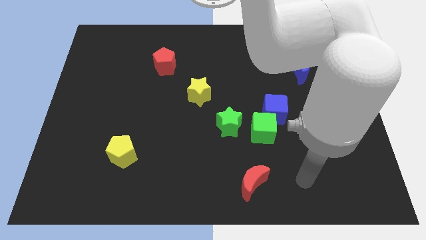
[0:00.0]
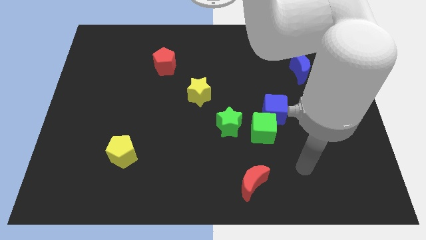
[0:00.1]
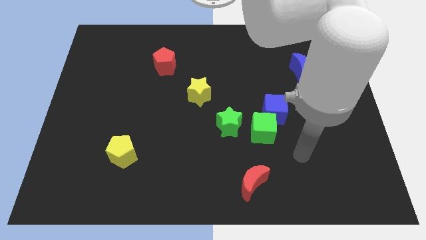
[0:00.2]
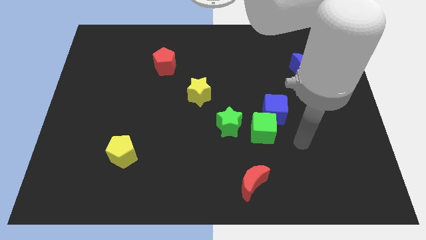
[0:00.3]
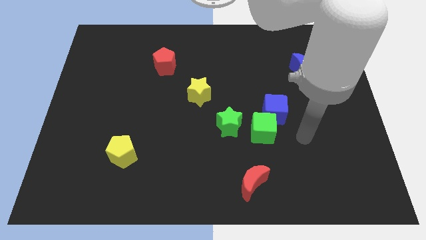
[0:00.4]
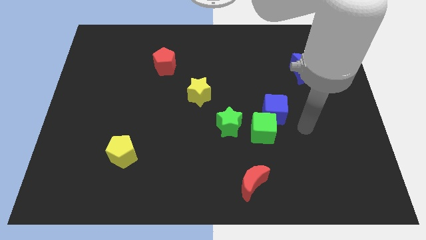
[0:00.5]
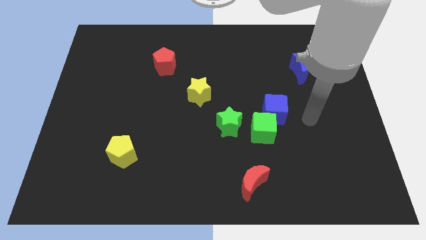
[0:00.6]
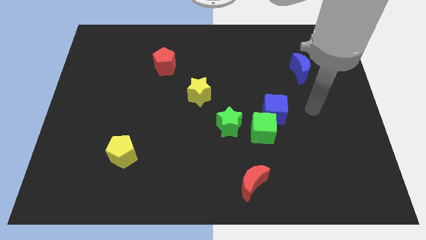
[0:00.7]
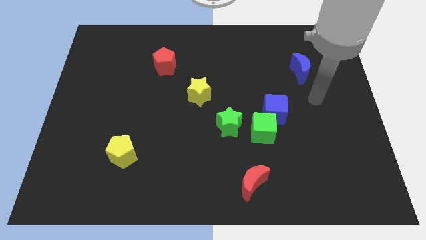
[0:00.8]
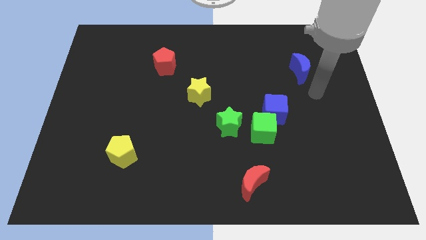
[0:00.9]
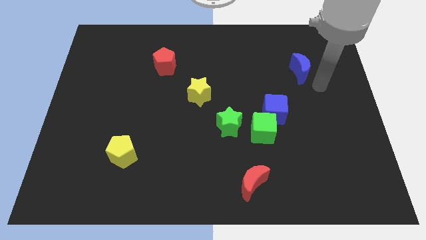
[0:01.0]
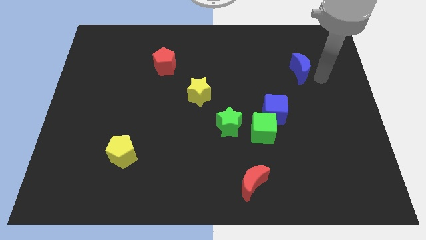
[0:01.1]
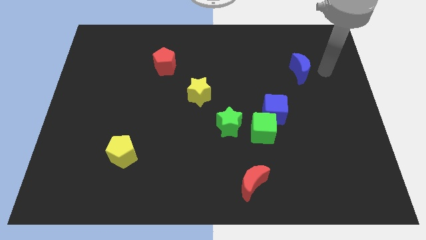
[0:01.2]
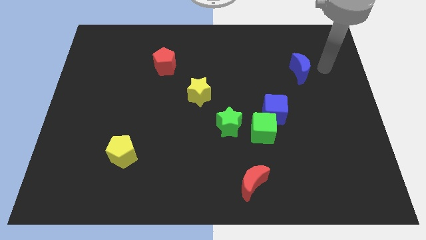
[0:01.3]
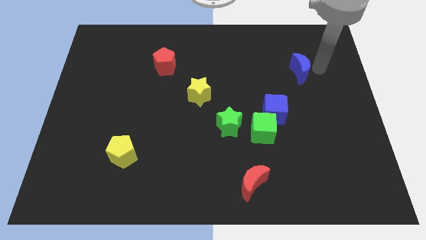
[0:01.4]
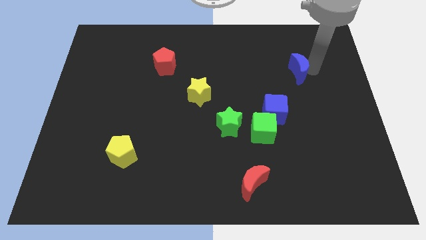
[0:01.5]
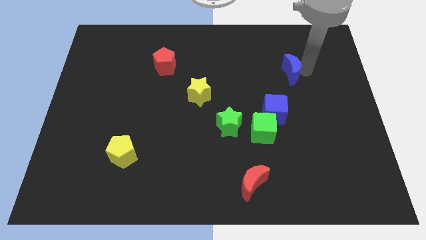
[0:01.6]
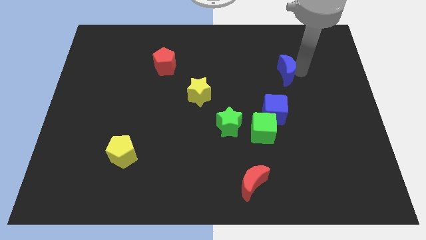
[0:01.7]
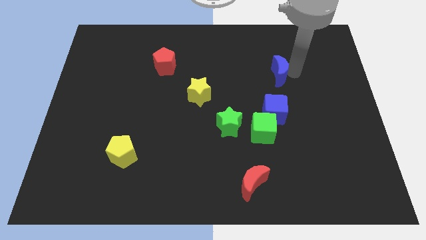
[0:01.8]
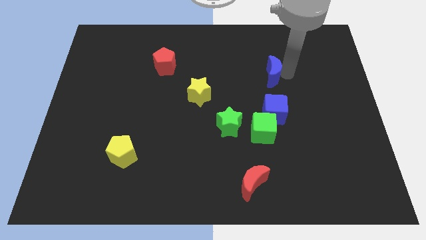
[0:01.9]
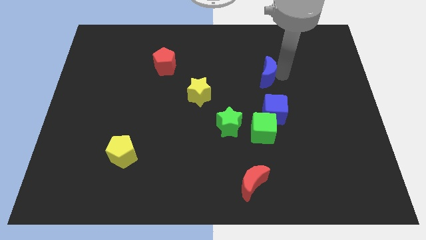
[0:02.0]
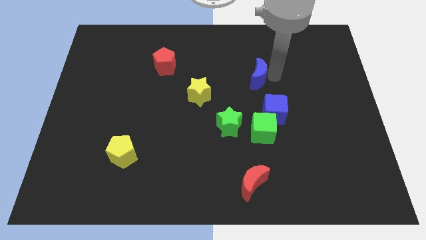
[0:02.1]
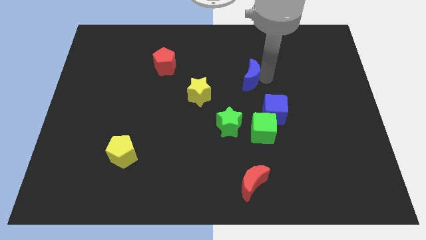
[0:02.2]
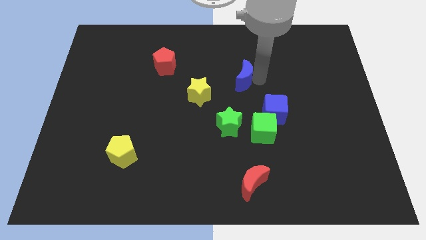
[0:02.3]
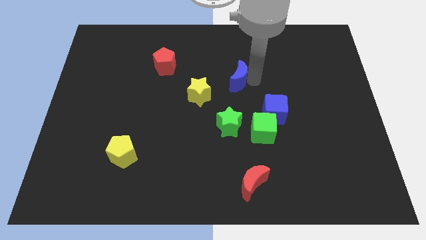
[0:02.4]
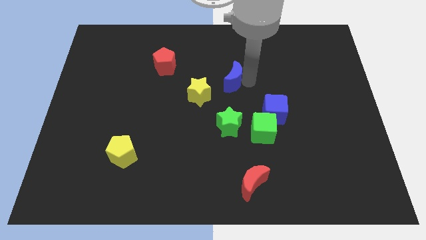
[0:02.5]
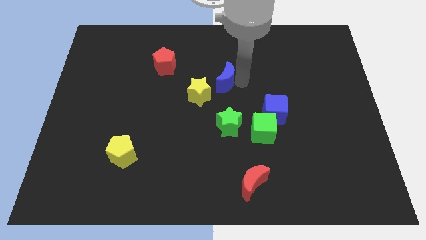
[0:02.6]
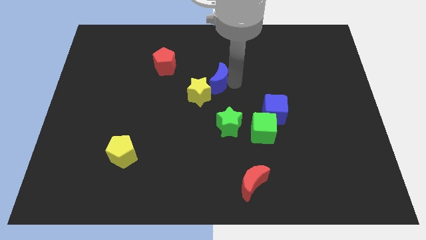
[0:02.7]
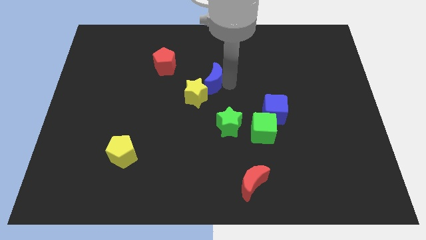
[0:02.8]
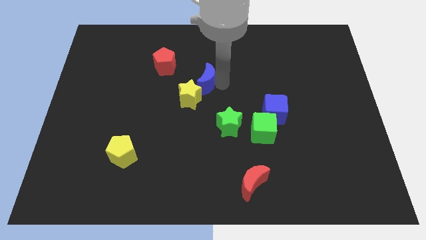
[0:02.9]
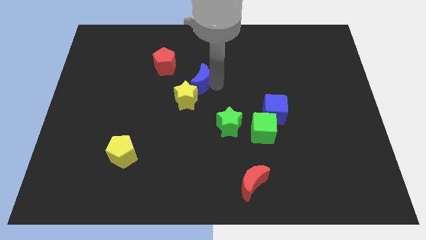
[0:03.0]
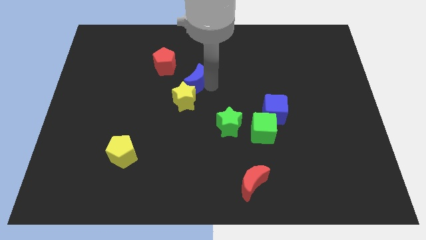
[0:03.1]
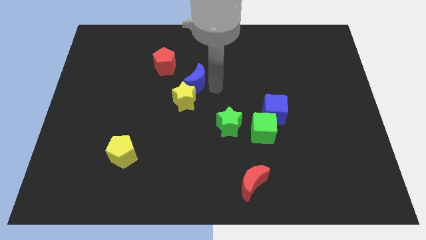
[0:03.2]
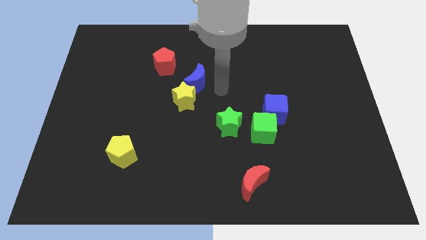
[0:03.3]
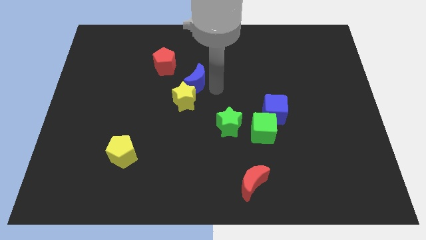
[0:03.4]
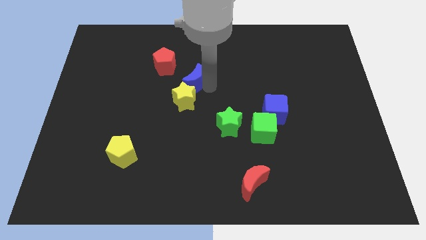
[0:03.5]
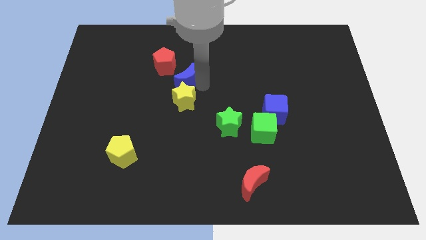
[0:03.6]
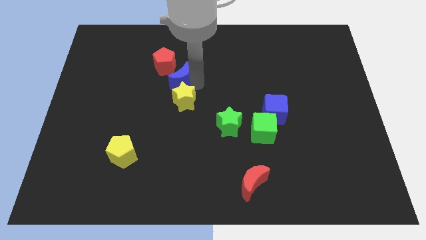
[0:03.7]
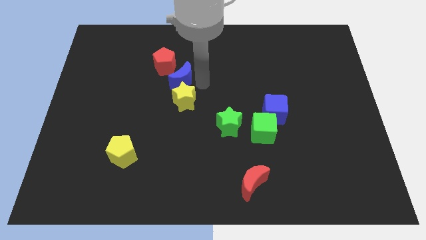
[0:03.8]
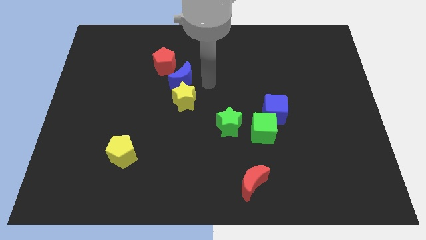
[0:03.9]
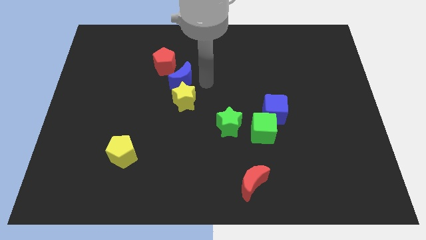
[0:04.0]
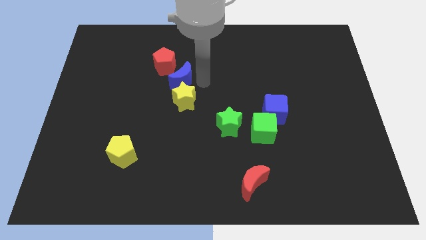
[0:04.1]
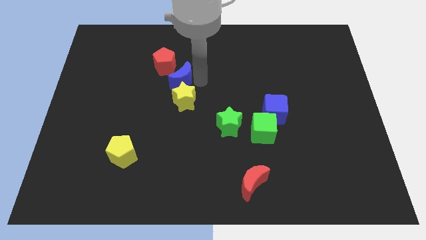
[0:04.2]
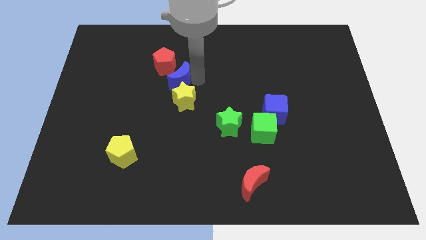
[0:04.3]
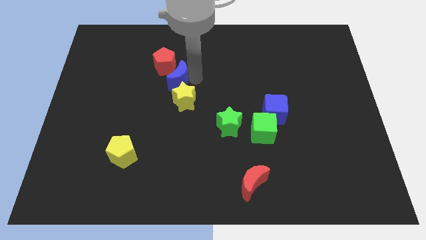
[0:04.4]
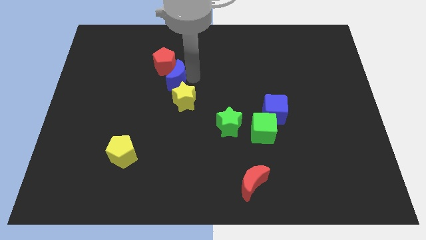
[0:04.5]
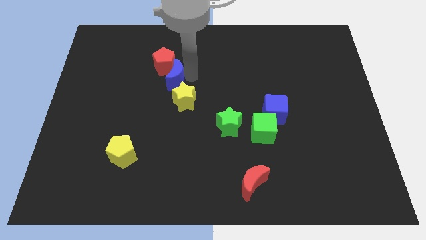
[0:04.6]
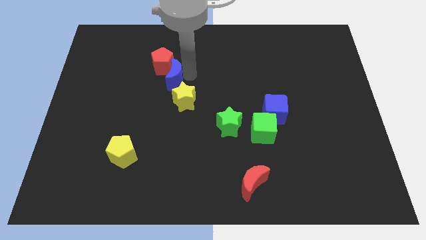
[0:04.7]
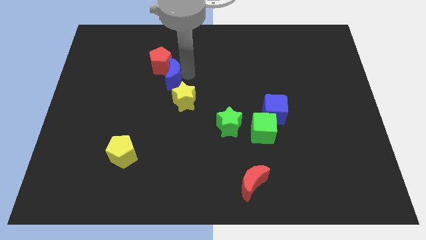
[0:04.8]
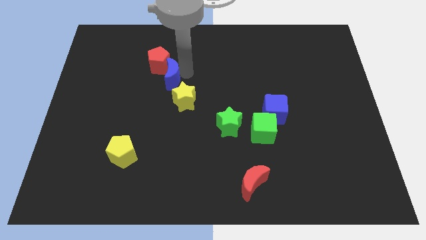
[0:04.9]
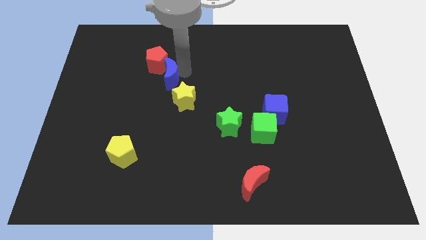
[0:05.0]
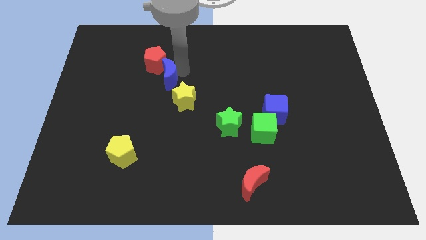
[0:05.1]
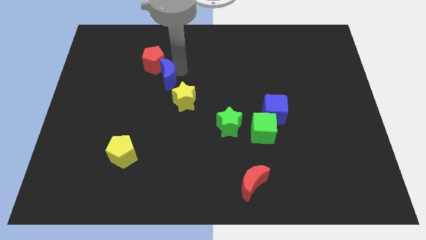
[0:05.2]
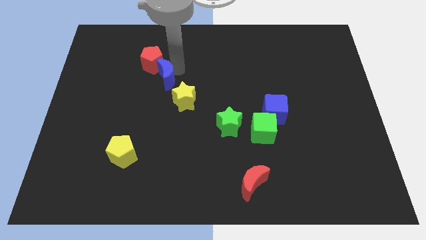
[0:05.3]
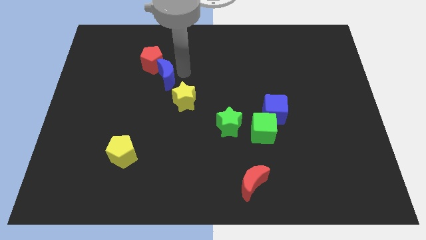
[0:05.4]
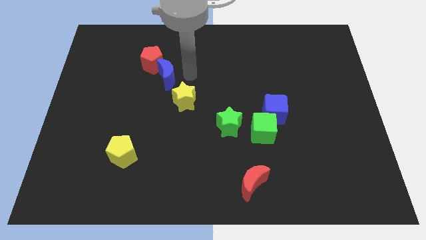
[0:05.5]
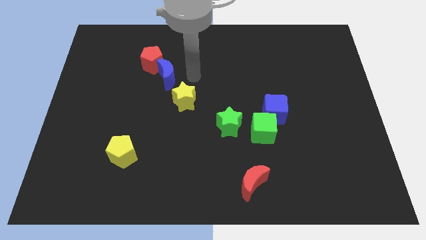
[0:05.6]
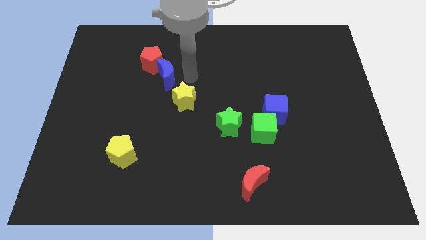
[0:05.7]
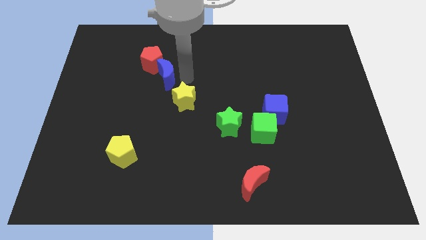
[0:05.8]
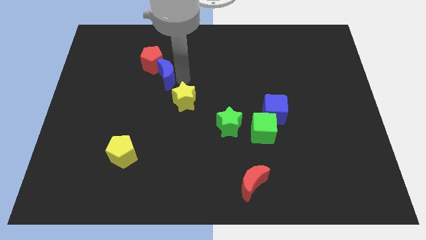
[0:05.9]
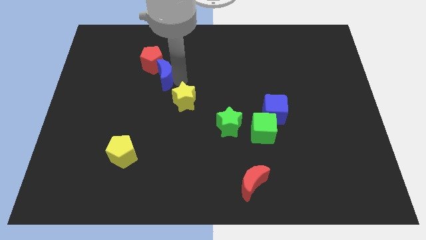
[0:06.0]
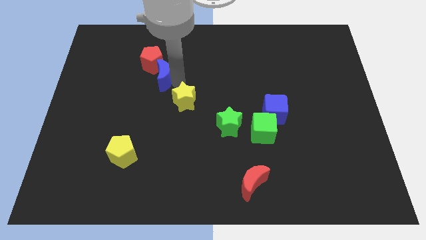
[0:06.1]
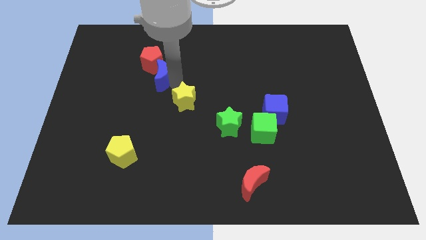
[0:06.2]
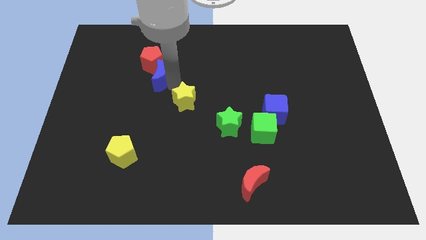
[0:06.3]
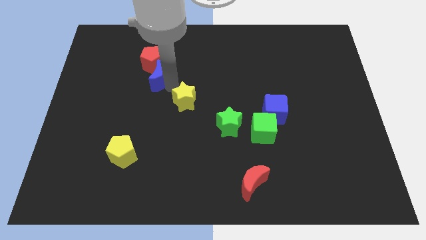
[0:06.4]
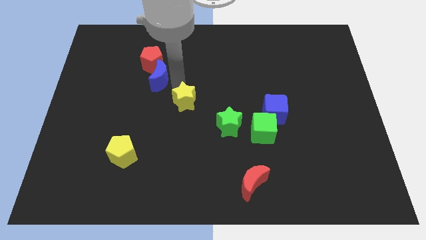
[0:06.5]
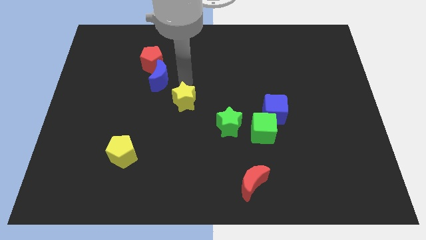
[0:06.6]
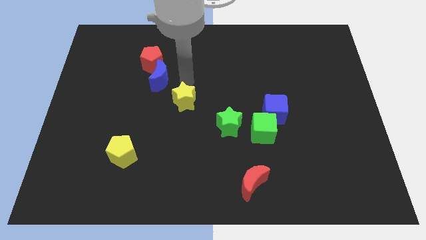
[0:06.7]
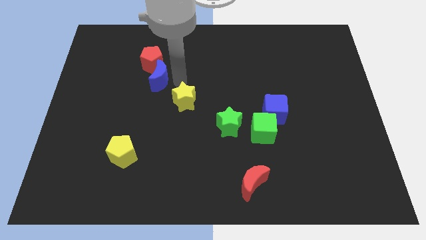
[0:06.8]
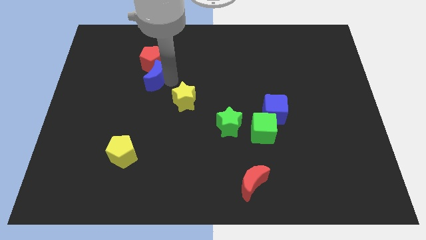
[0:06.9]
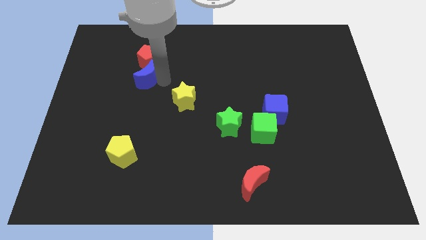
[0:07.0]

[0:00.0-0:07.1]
move the blue moon to the bottom left of the red pentagon

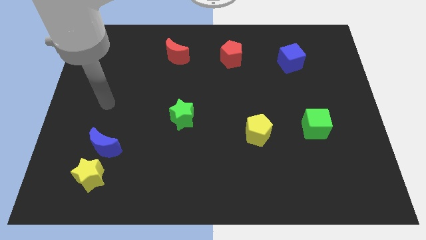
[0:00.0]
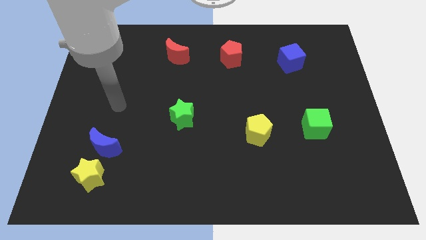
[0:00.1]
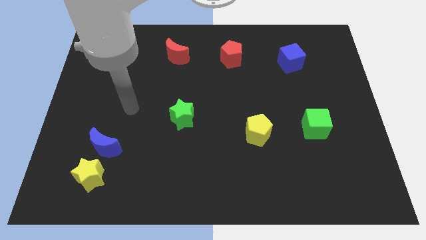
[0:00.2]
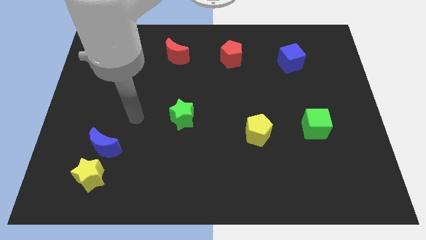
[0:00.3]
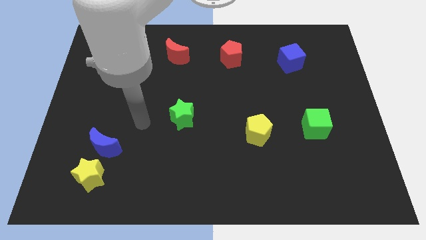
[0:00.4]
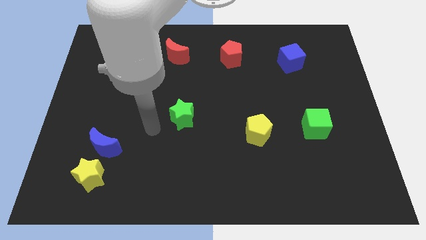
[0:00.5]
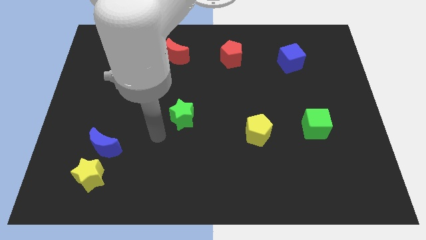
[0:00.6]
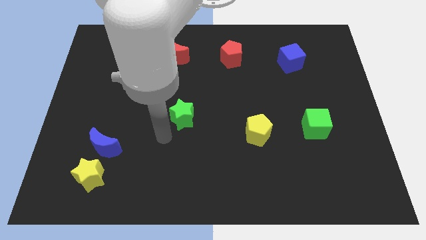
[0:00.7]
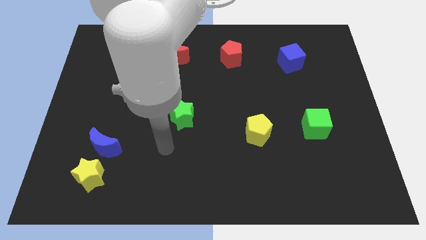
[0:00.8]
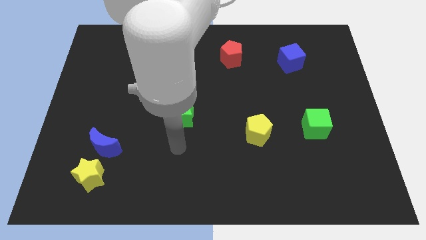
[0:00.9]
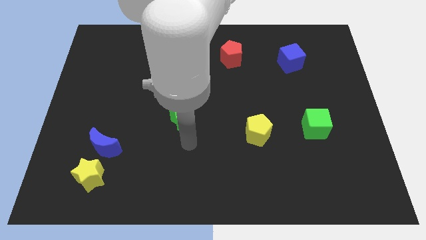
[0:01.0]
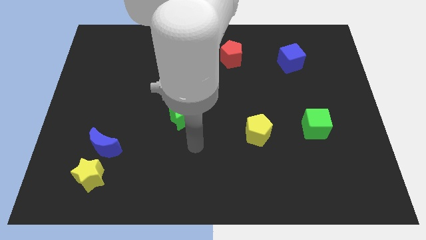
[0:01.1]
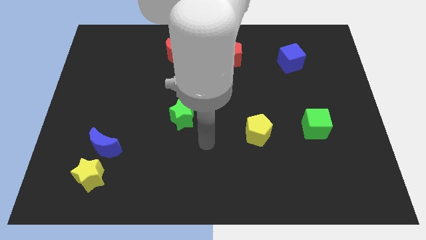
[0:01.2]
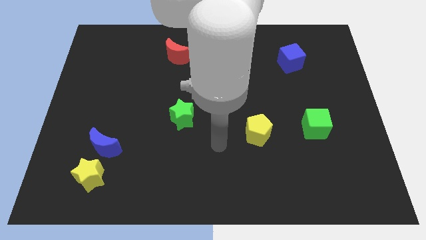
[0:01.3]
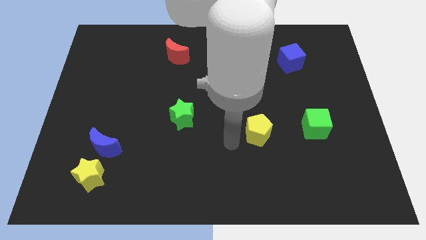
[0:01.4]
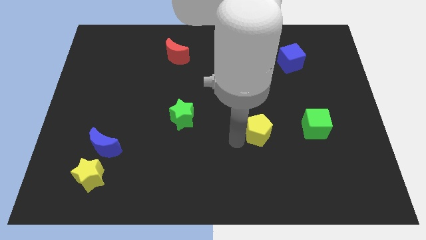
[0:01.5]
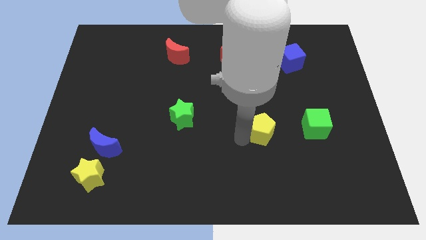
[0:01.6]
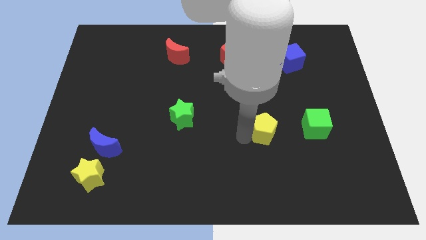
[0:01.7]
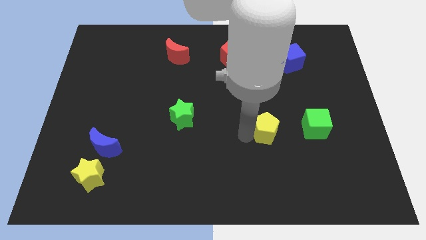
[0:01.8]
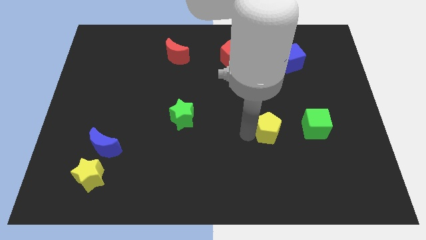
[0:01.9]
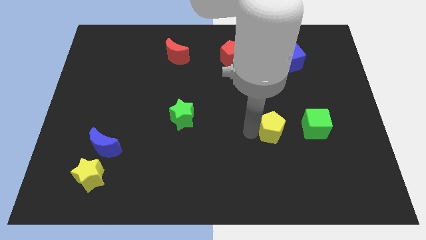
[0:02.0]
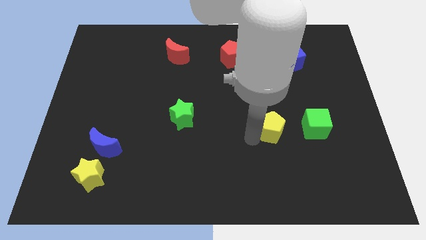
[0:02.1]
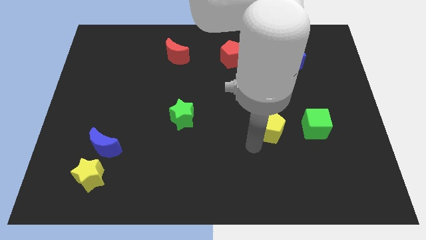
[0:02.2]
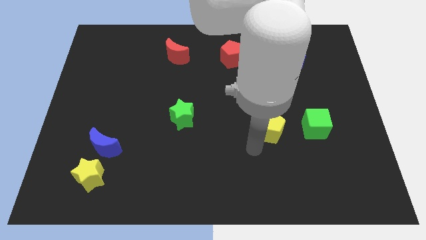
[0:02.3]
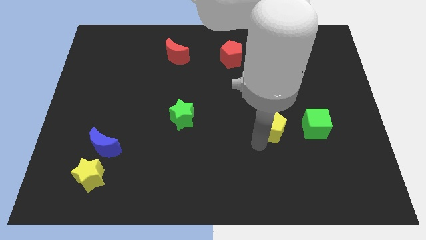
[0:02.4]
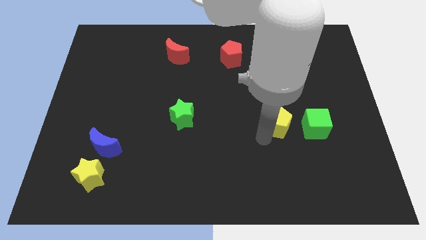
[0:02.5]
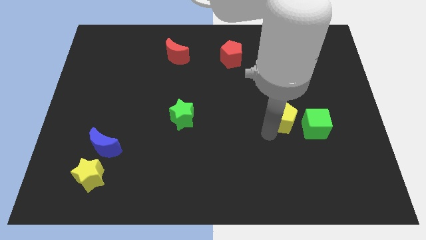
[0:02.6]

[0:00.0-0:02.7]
push the yellow pentagon to the top left side of the green cube
